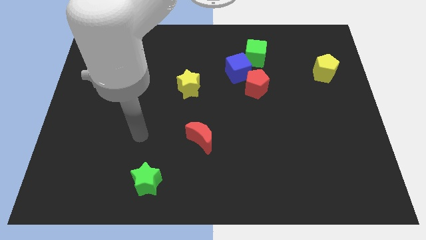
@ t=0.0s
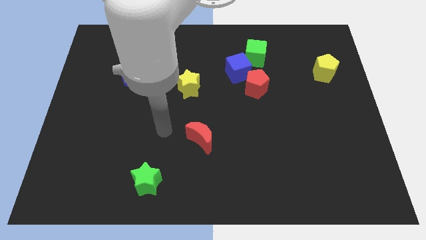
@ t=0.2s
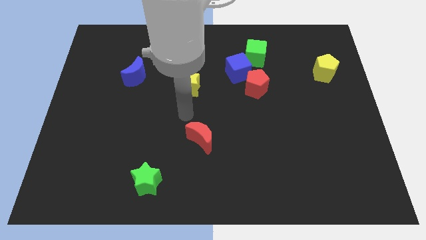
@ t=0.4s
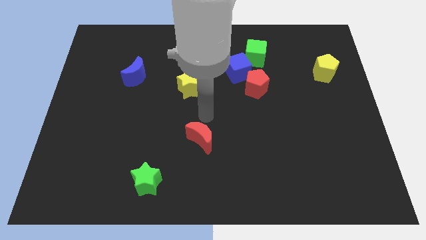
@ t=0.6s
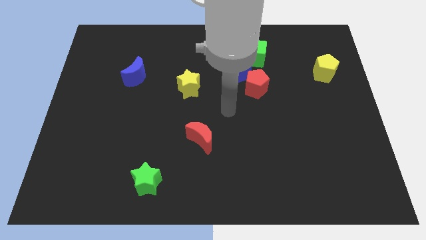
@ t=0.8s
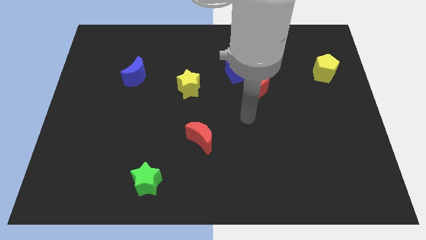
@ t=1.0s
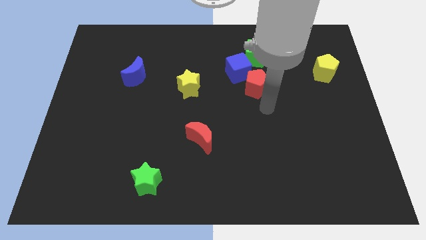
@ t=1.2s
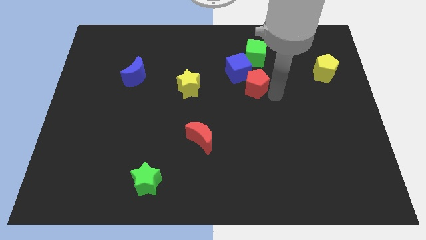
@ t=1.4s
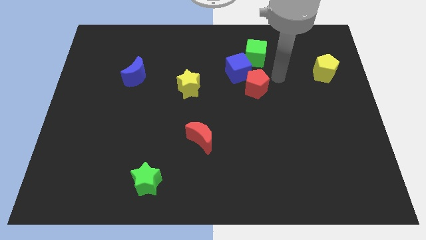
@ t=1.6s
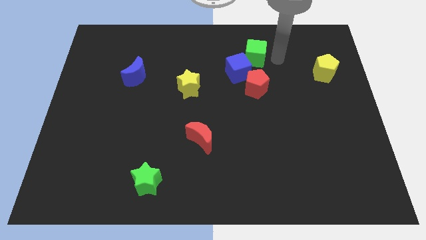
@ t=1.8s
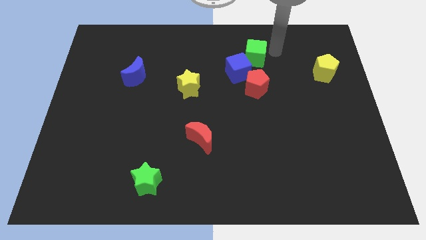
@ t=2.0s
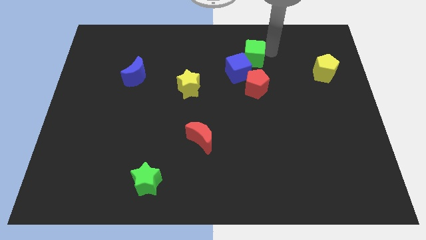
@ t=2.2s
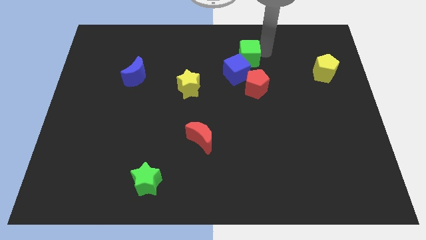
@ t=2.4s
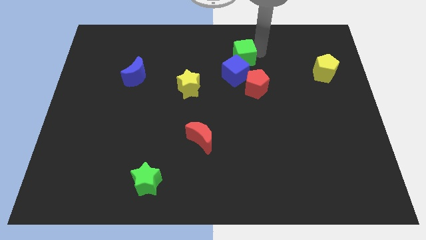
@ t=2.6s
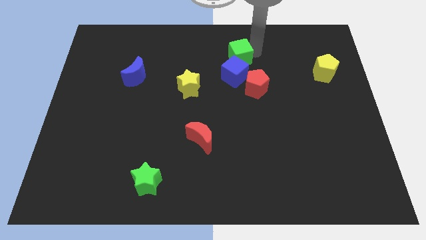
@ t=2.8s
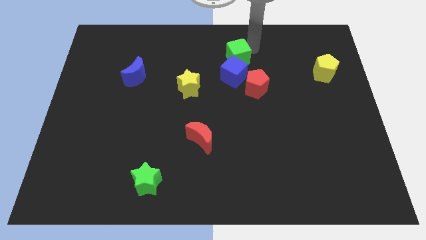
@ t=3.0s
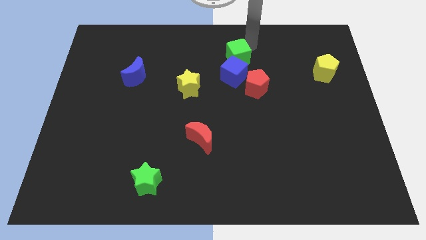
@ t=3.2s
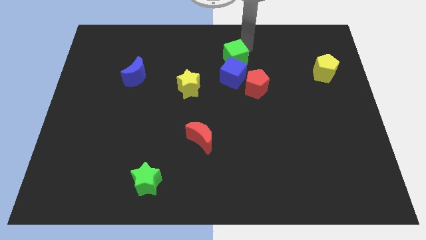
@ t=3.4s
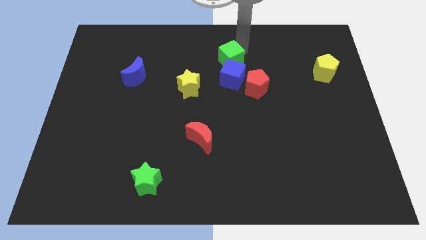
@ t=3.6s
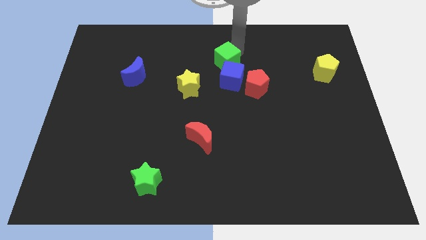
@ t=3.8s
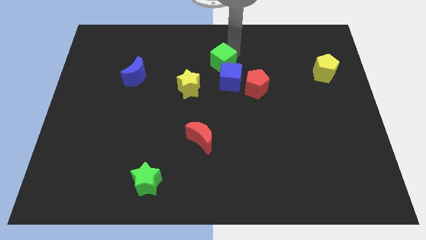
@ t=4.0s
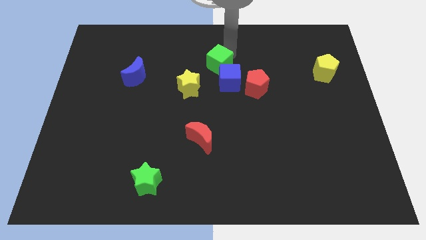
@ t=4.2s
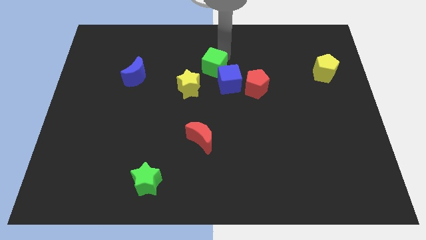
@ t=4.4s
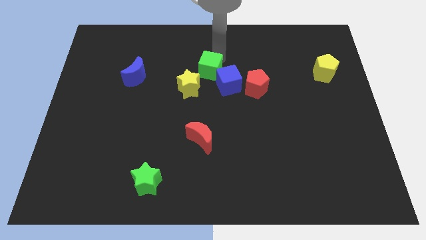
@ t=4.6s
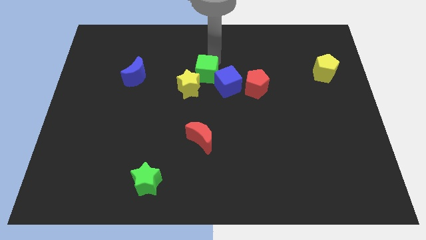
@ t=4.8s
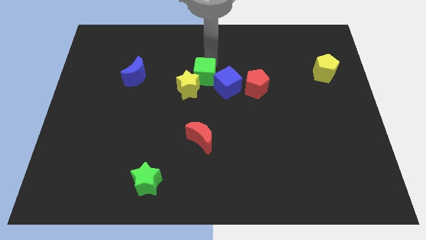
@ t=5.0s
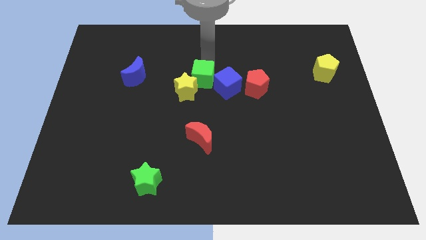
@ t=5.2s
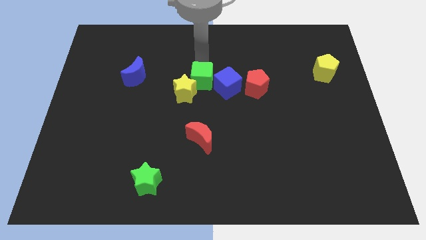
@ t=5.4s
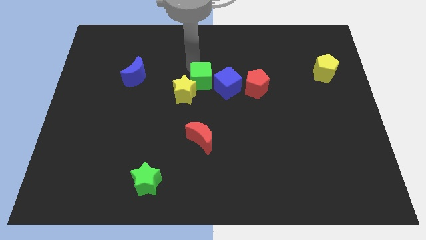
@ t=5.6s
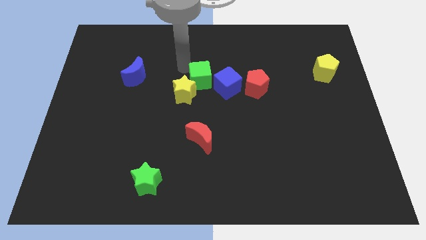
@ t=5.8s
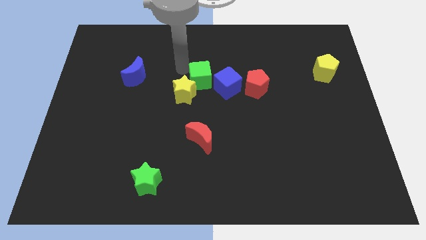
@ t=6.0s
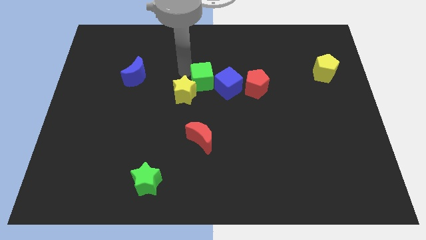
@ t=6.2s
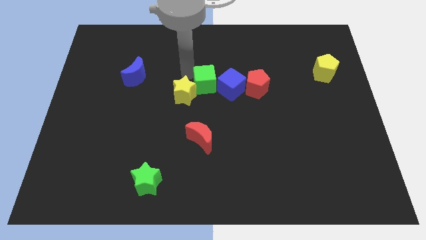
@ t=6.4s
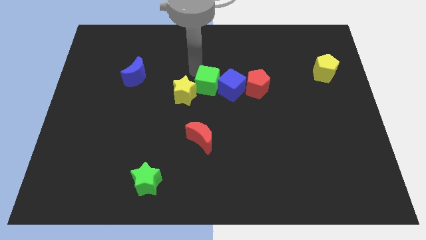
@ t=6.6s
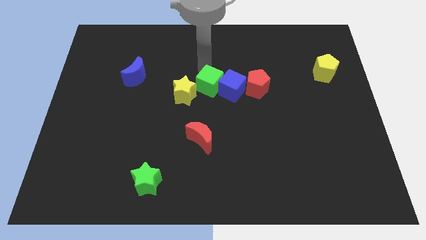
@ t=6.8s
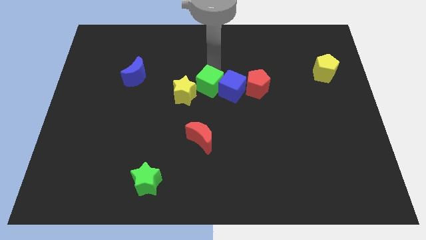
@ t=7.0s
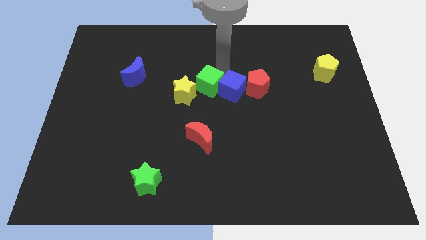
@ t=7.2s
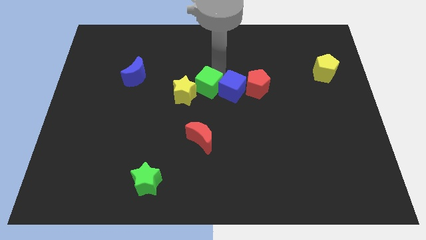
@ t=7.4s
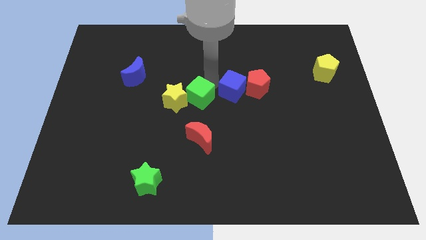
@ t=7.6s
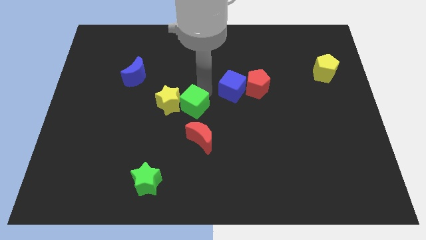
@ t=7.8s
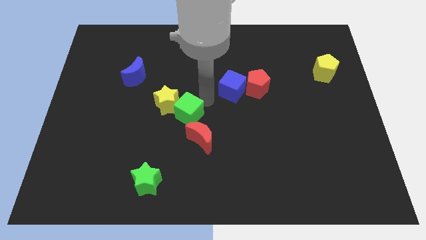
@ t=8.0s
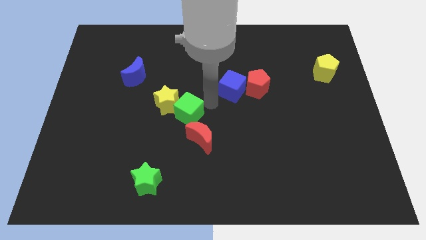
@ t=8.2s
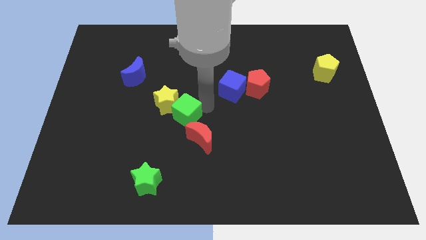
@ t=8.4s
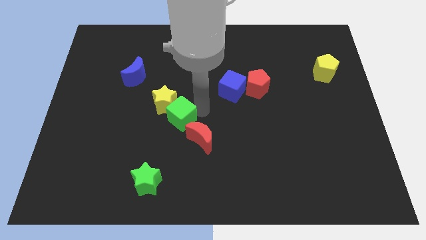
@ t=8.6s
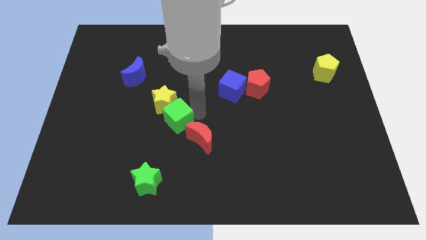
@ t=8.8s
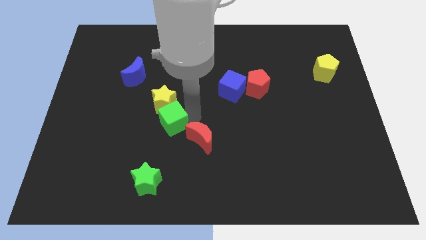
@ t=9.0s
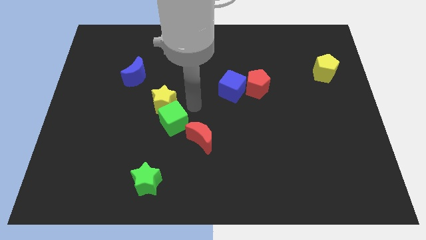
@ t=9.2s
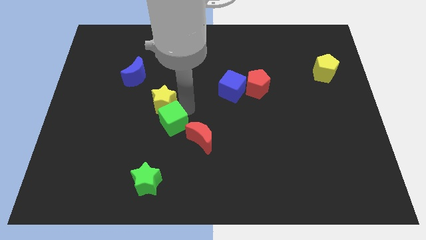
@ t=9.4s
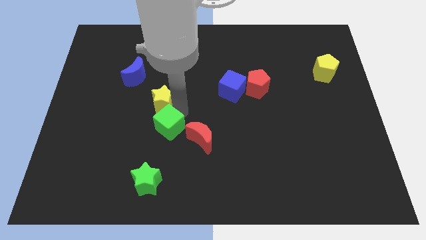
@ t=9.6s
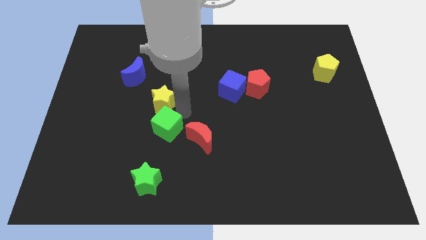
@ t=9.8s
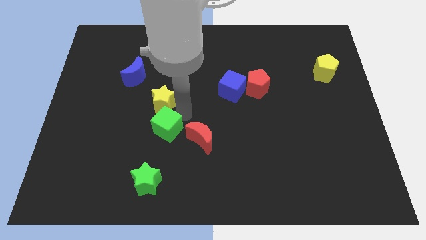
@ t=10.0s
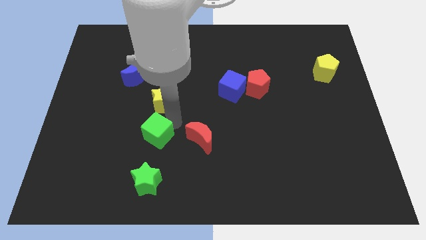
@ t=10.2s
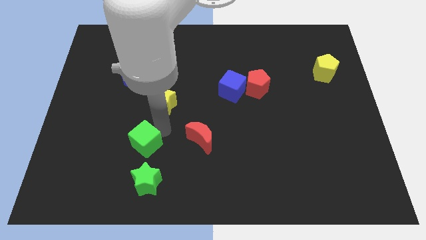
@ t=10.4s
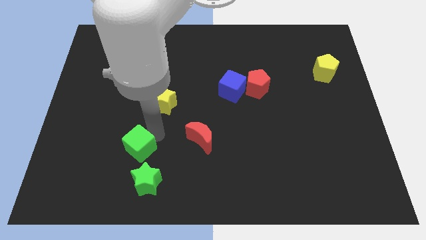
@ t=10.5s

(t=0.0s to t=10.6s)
put the green cube to the top left side of the green star

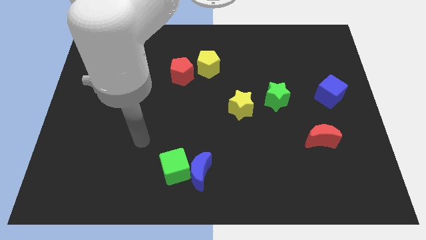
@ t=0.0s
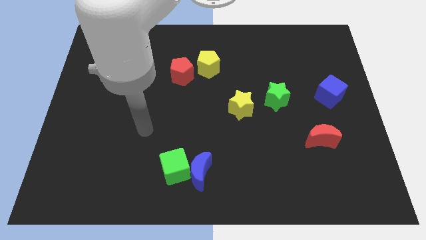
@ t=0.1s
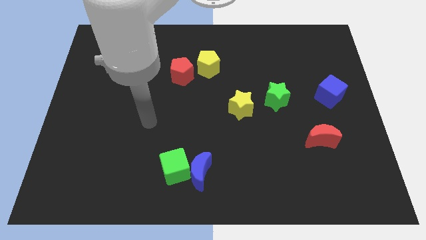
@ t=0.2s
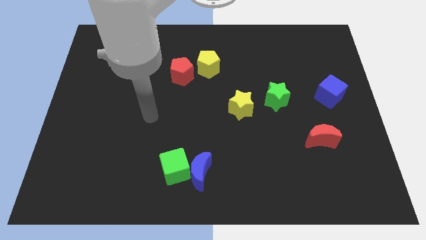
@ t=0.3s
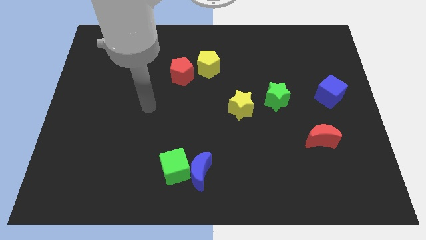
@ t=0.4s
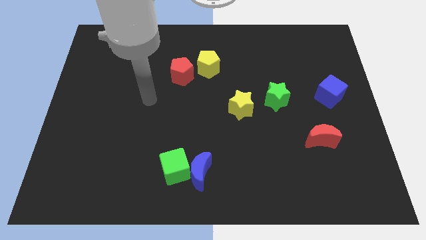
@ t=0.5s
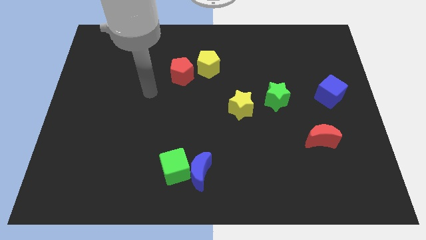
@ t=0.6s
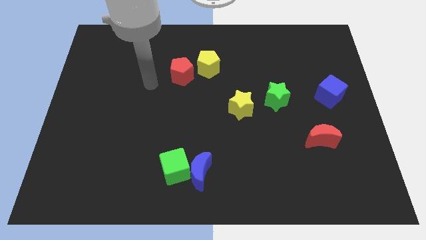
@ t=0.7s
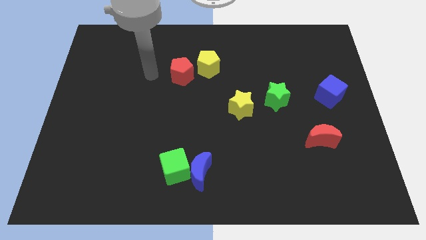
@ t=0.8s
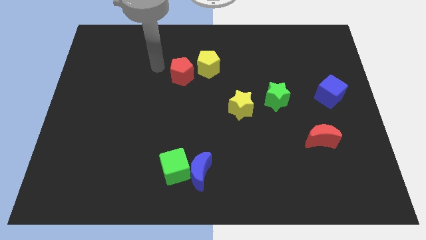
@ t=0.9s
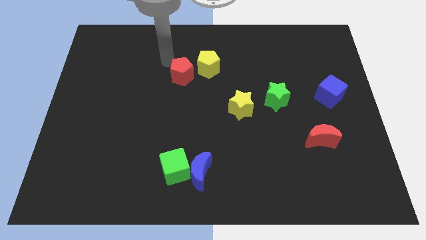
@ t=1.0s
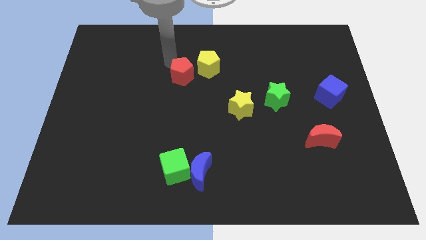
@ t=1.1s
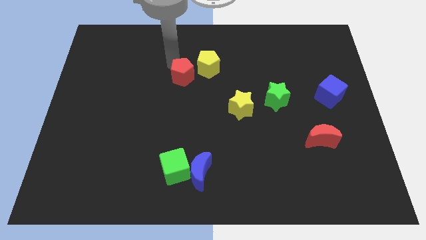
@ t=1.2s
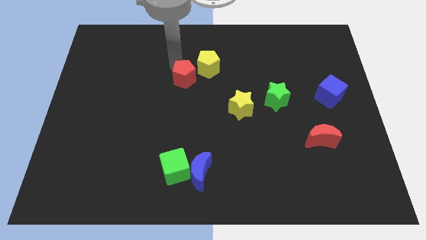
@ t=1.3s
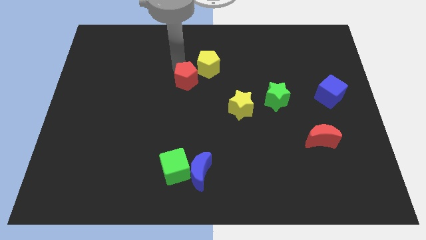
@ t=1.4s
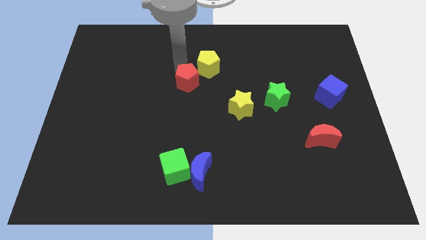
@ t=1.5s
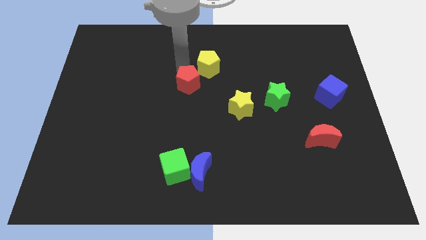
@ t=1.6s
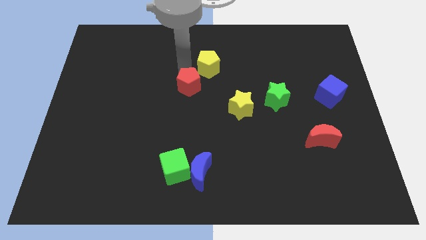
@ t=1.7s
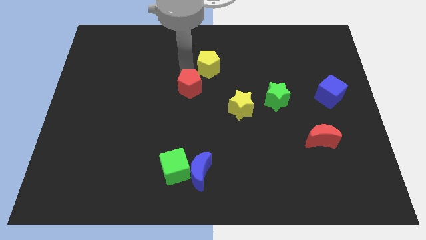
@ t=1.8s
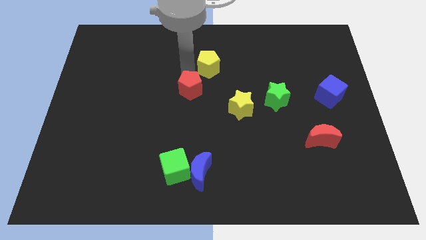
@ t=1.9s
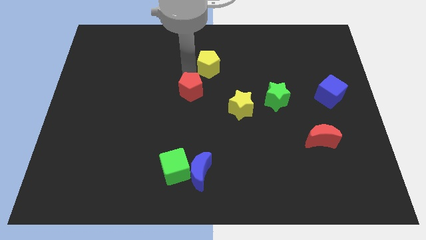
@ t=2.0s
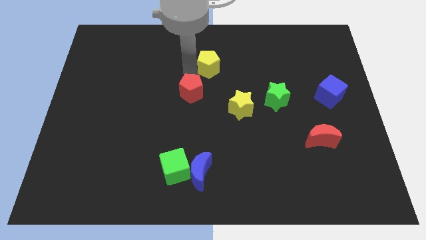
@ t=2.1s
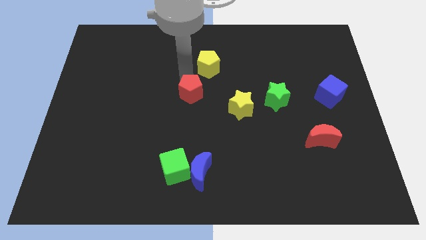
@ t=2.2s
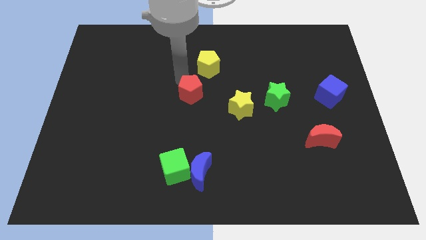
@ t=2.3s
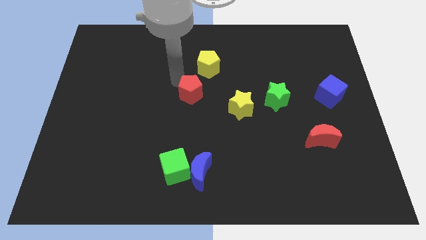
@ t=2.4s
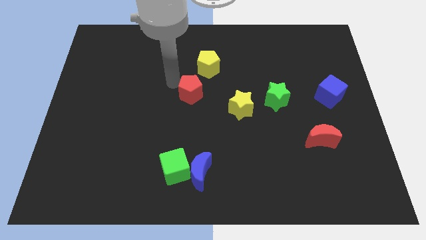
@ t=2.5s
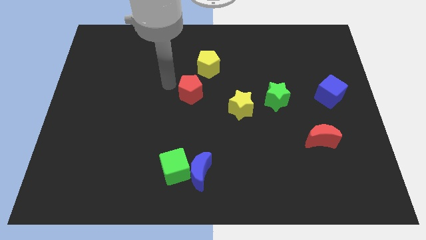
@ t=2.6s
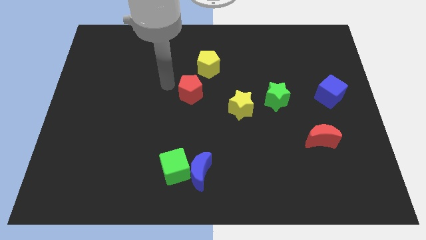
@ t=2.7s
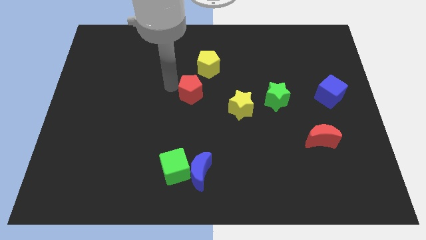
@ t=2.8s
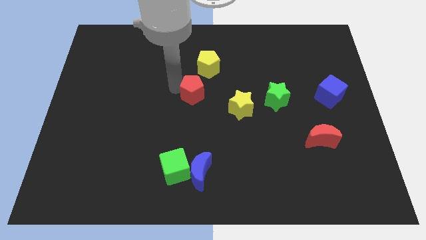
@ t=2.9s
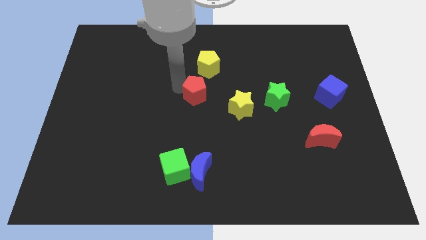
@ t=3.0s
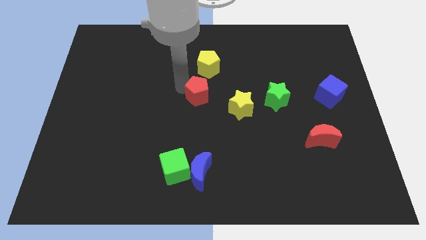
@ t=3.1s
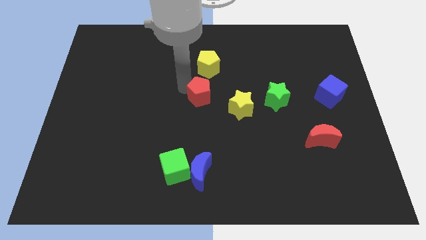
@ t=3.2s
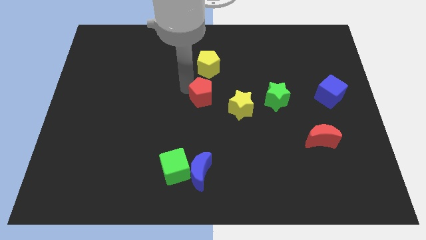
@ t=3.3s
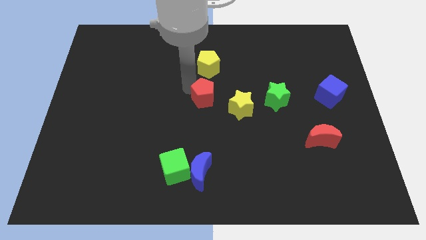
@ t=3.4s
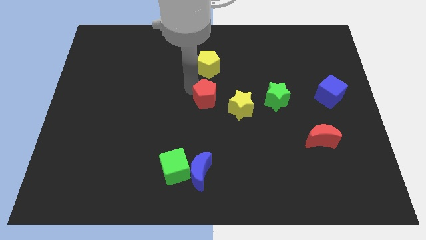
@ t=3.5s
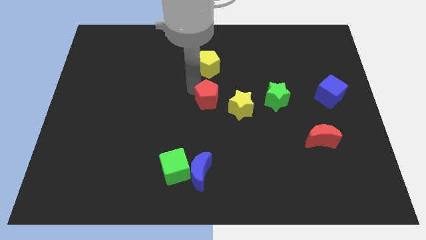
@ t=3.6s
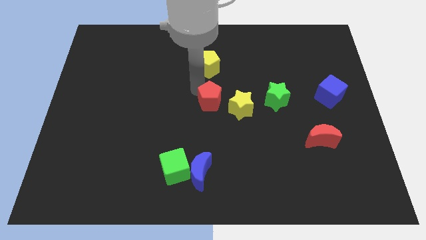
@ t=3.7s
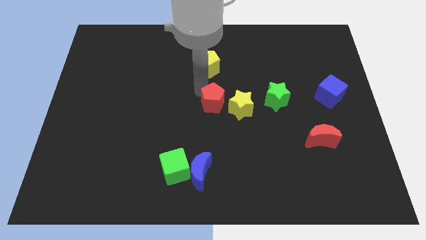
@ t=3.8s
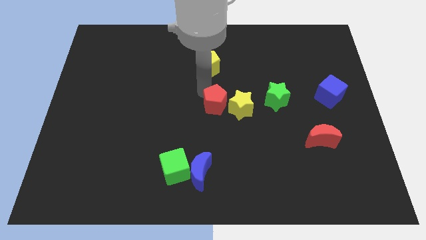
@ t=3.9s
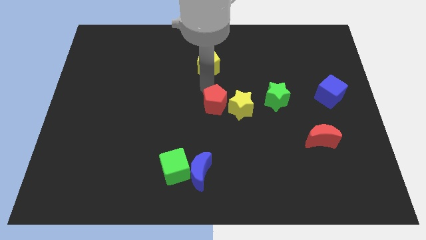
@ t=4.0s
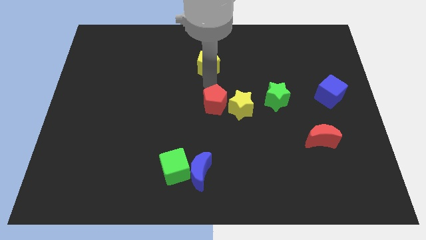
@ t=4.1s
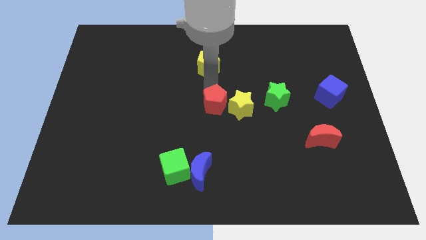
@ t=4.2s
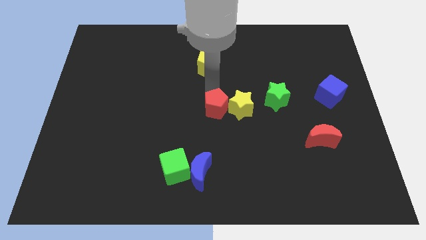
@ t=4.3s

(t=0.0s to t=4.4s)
move the red pentagon diagonally down and to the left of the yellow star
